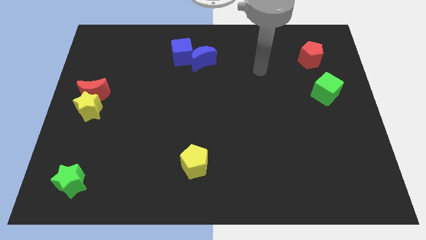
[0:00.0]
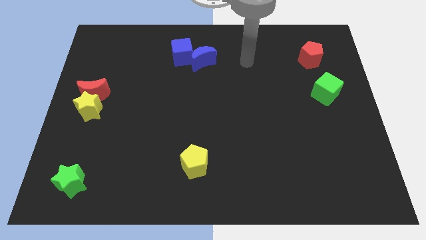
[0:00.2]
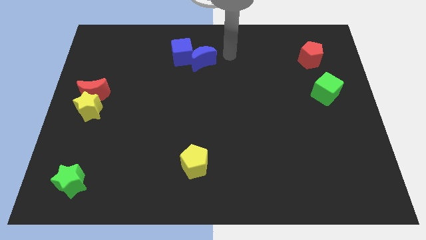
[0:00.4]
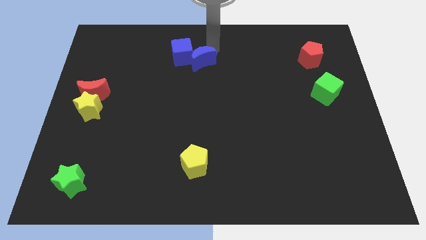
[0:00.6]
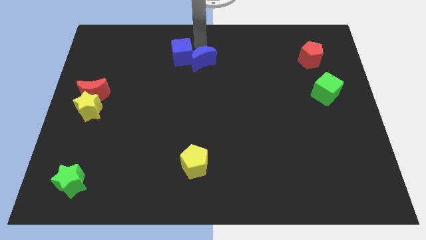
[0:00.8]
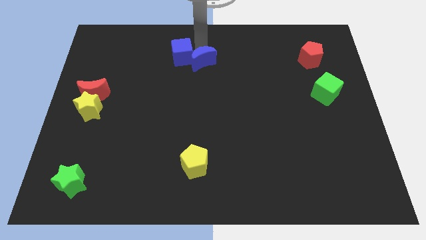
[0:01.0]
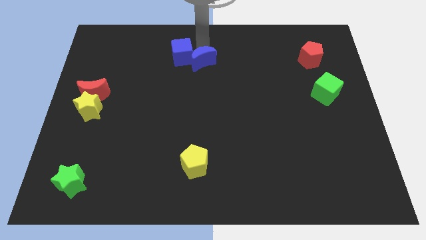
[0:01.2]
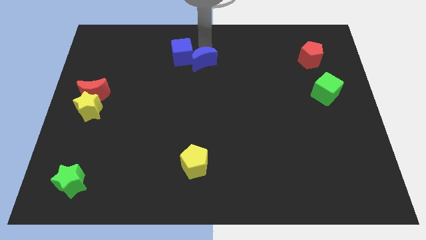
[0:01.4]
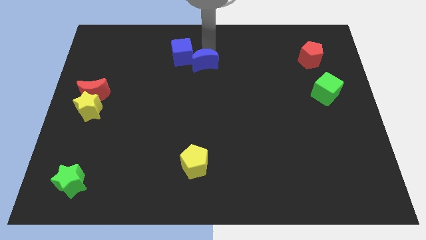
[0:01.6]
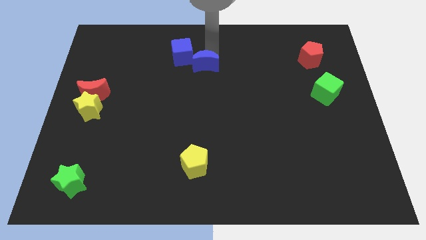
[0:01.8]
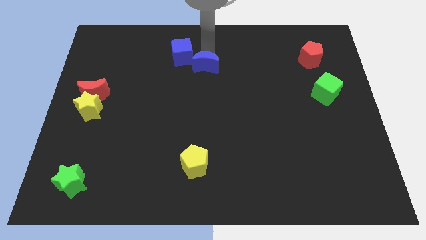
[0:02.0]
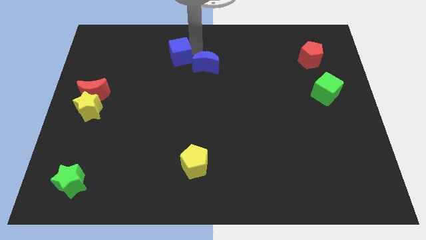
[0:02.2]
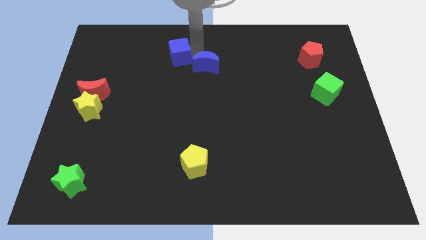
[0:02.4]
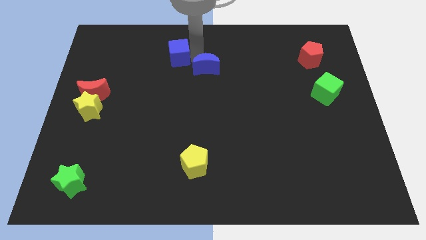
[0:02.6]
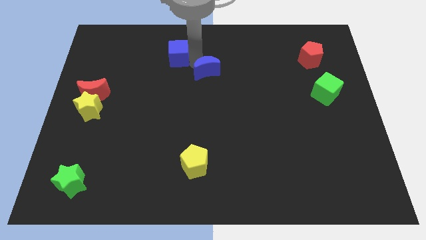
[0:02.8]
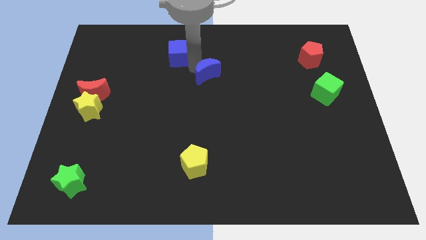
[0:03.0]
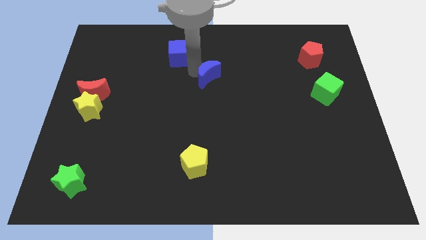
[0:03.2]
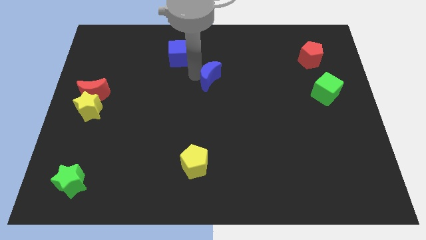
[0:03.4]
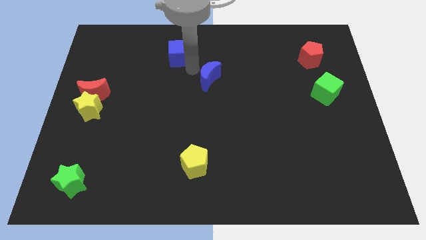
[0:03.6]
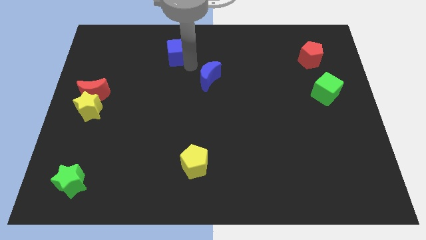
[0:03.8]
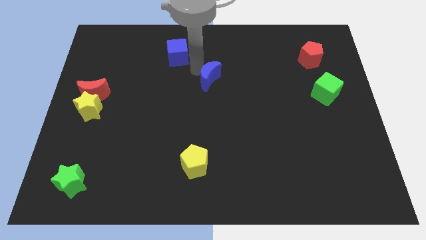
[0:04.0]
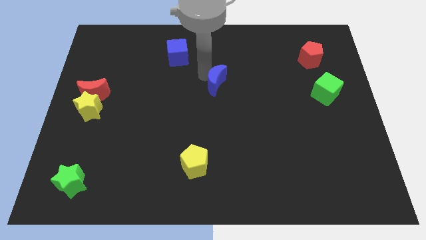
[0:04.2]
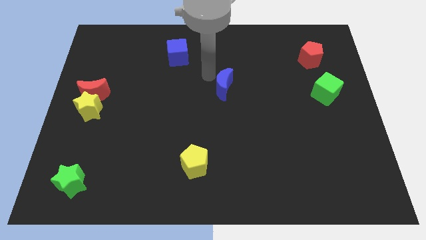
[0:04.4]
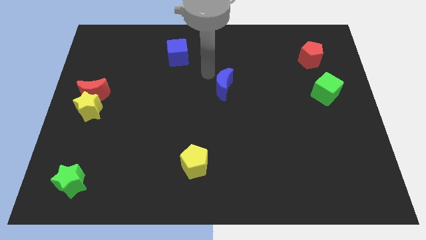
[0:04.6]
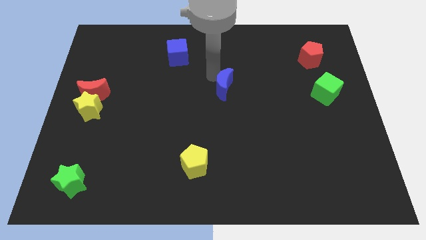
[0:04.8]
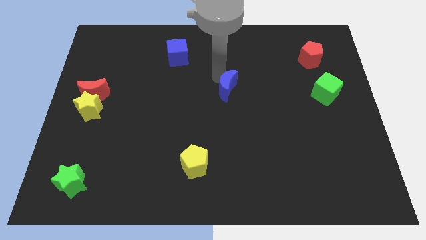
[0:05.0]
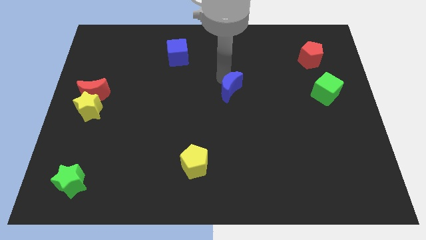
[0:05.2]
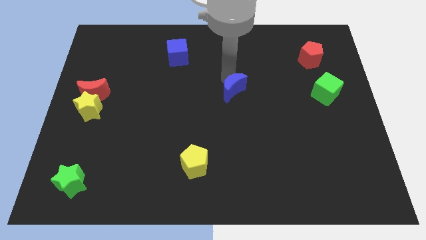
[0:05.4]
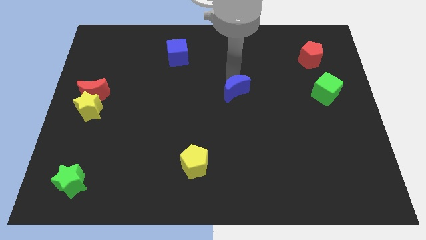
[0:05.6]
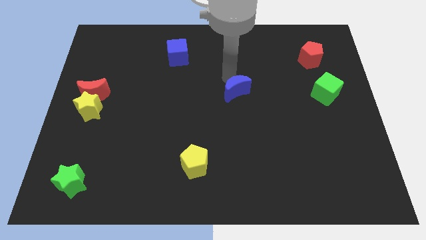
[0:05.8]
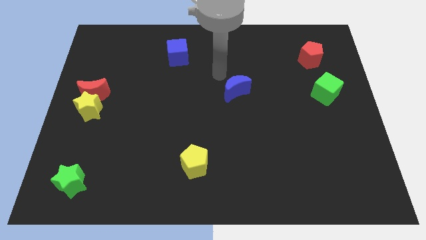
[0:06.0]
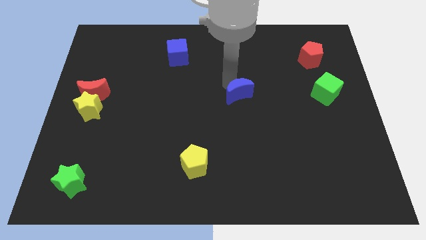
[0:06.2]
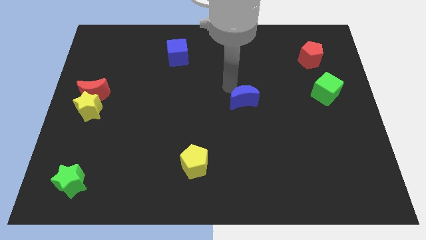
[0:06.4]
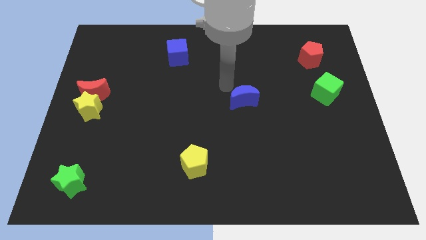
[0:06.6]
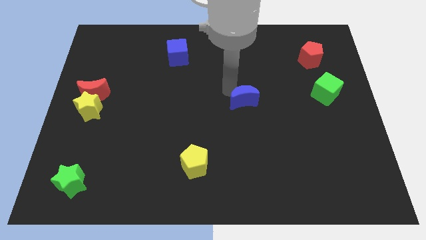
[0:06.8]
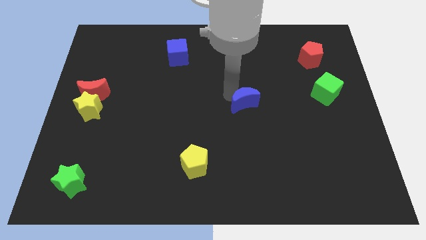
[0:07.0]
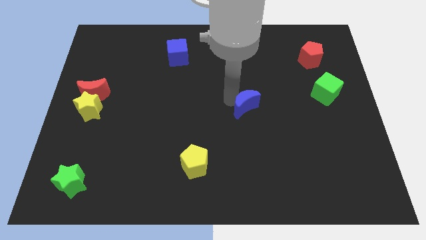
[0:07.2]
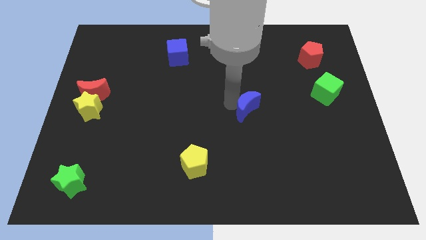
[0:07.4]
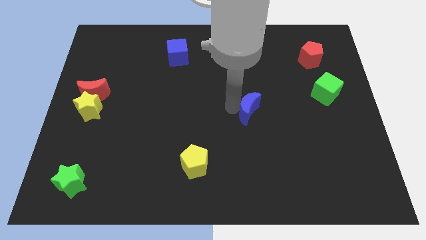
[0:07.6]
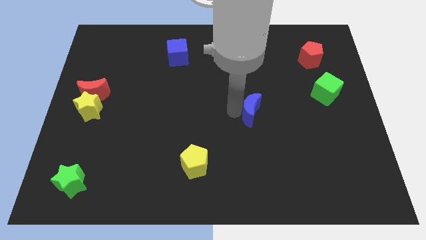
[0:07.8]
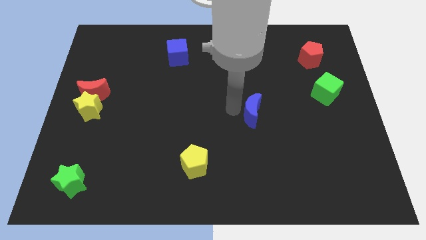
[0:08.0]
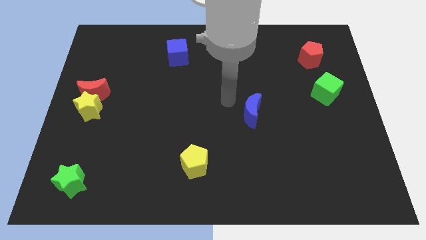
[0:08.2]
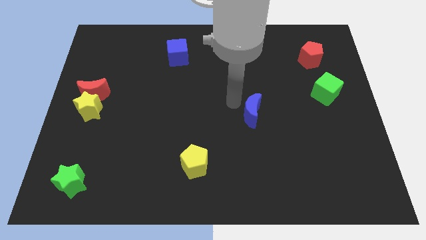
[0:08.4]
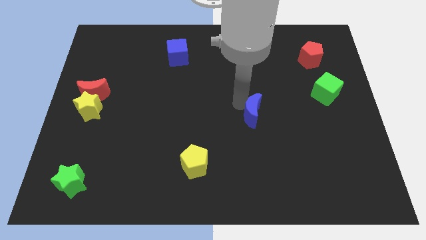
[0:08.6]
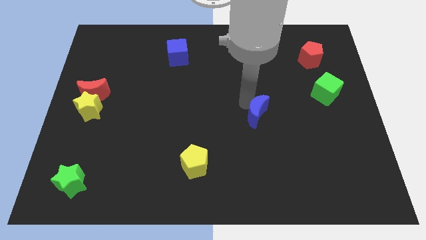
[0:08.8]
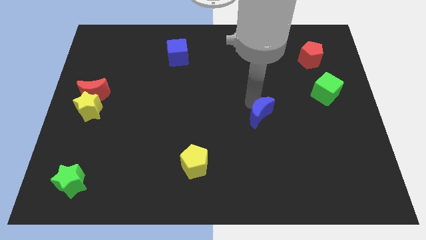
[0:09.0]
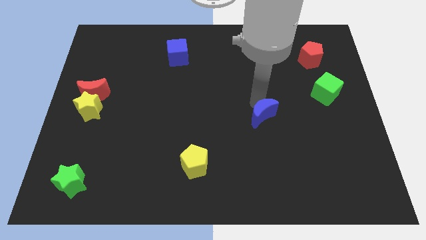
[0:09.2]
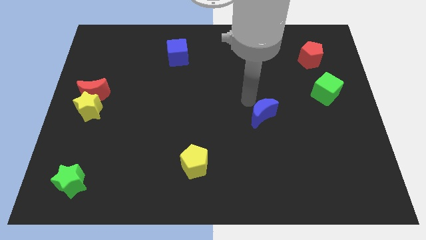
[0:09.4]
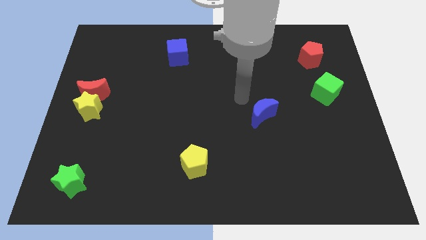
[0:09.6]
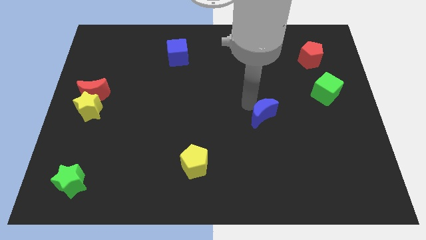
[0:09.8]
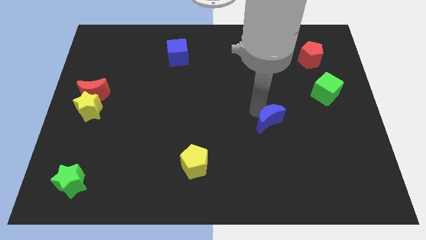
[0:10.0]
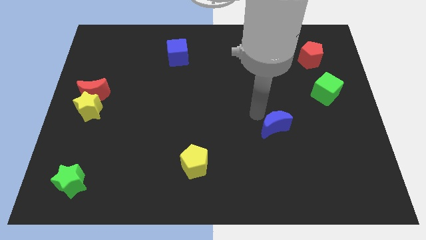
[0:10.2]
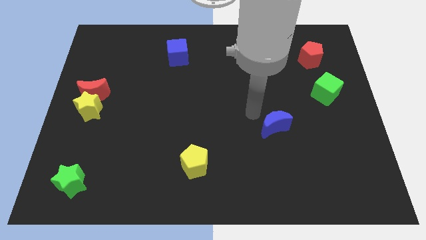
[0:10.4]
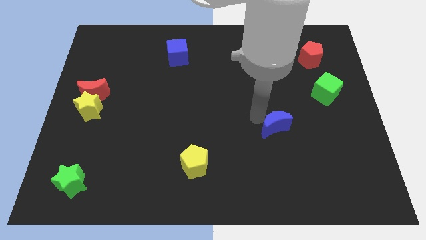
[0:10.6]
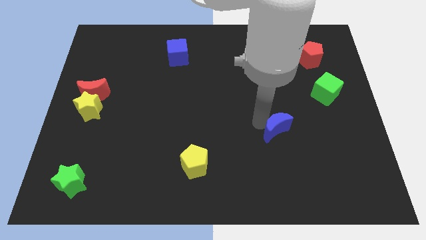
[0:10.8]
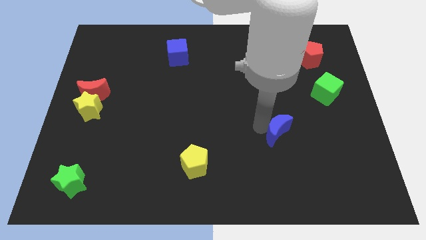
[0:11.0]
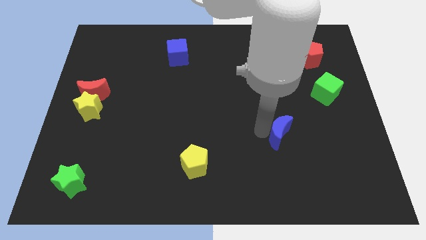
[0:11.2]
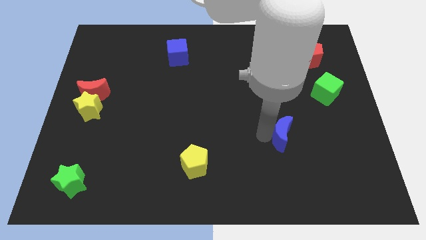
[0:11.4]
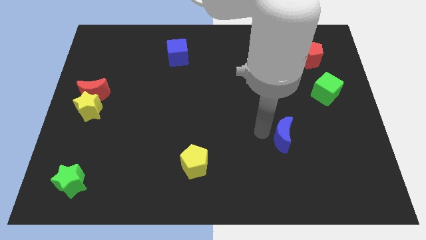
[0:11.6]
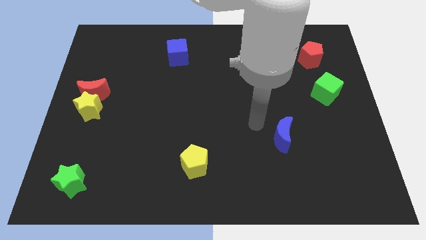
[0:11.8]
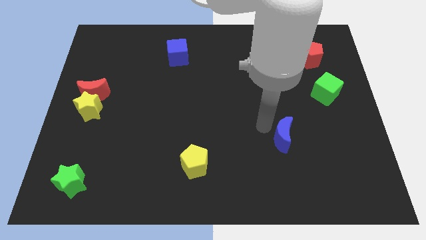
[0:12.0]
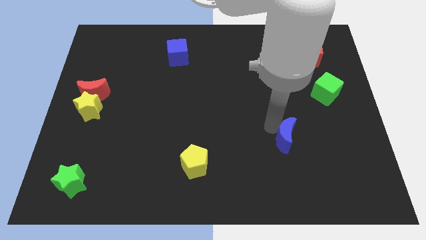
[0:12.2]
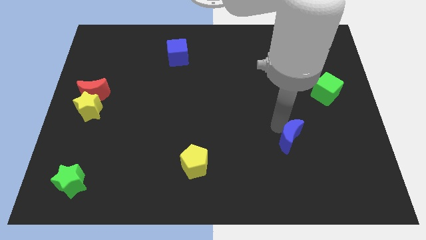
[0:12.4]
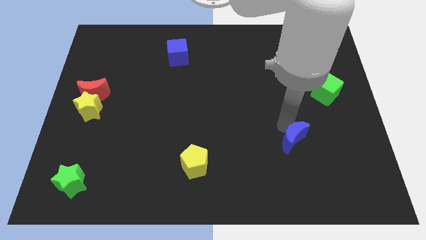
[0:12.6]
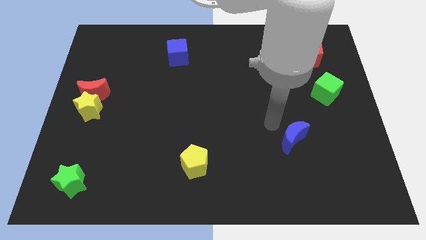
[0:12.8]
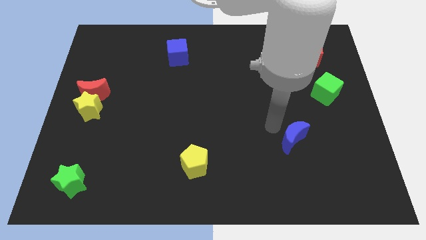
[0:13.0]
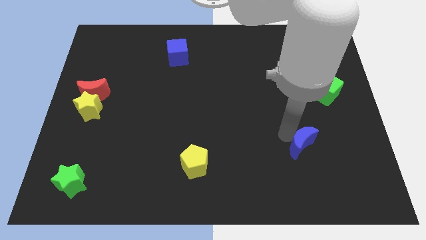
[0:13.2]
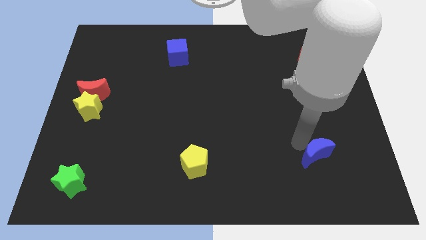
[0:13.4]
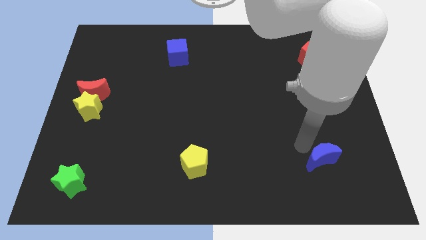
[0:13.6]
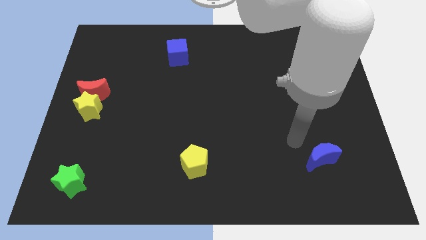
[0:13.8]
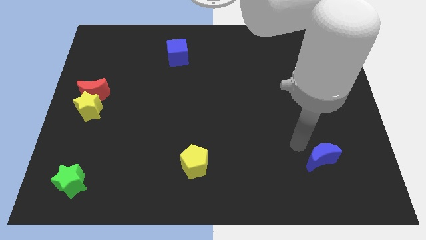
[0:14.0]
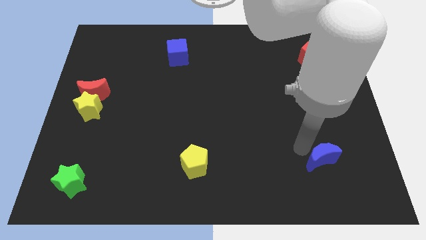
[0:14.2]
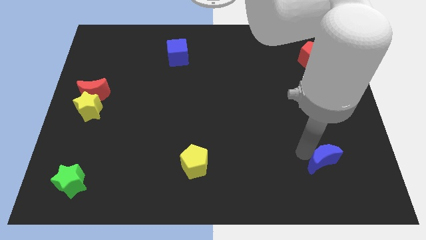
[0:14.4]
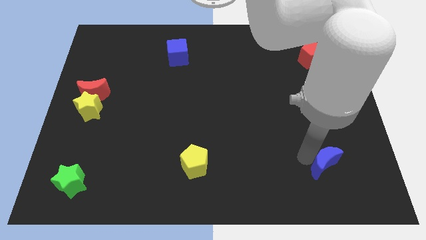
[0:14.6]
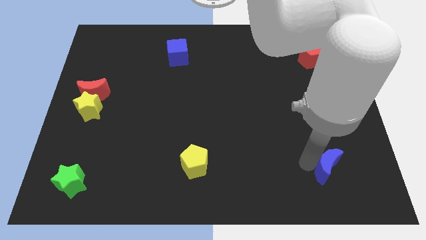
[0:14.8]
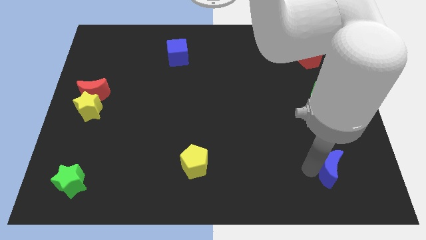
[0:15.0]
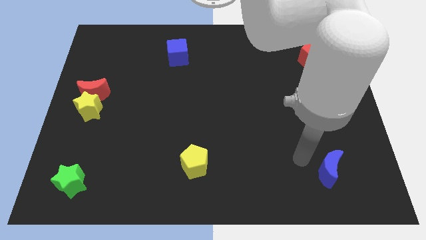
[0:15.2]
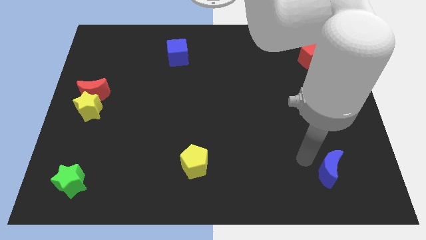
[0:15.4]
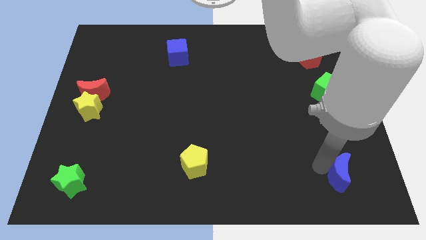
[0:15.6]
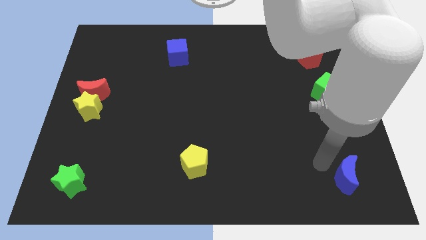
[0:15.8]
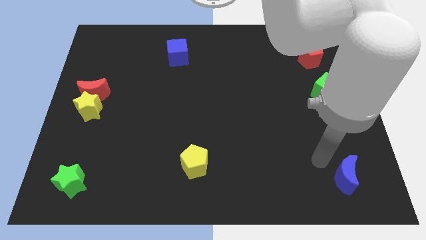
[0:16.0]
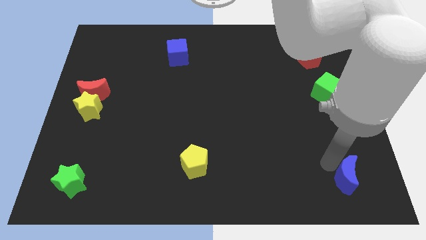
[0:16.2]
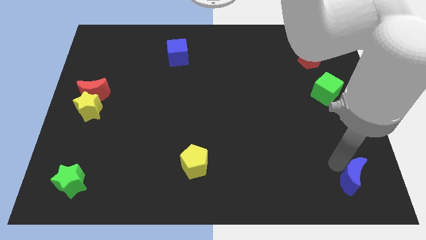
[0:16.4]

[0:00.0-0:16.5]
put the blue moon to the bottom right
